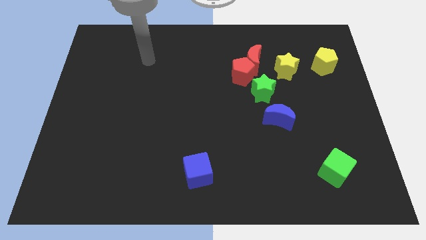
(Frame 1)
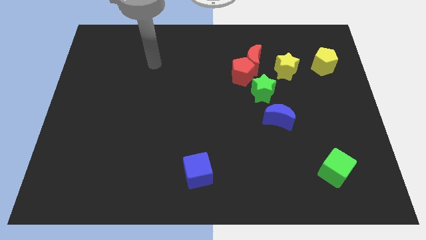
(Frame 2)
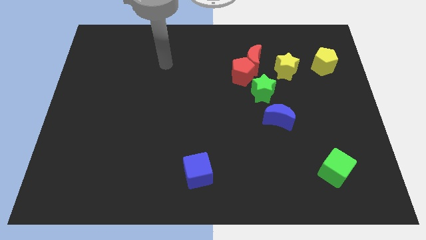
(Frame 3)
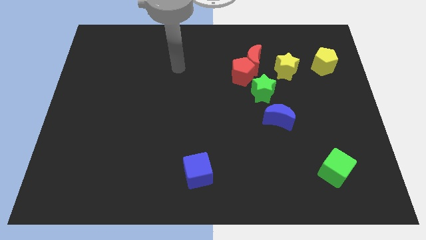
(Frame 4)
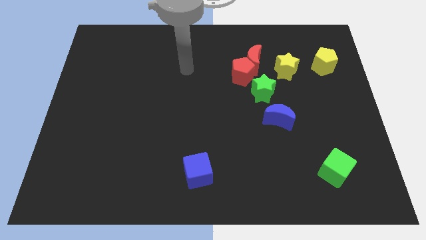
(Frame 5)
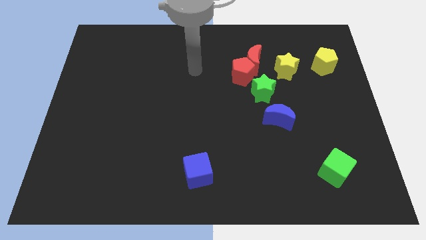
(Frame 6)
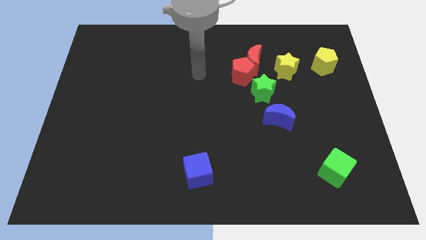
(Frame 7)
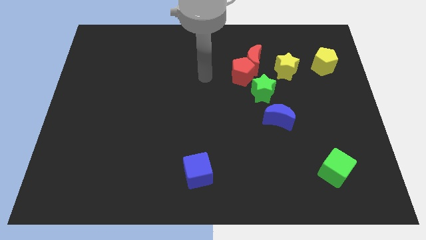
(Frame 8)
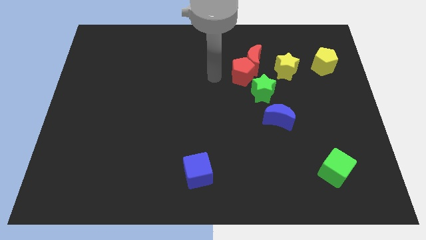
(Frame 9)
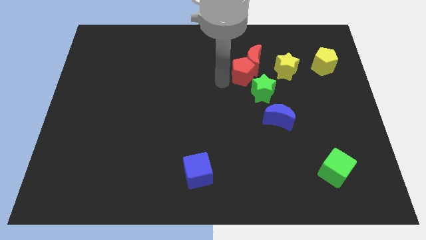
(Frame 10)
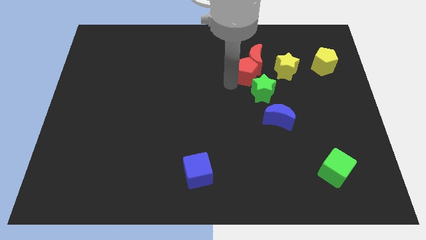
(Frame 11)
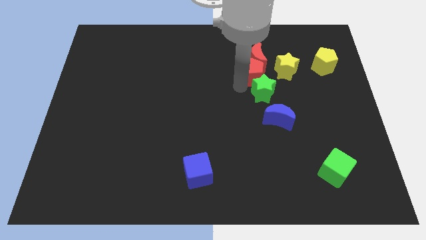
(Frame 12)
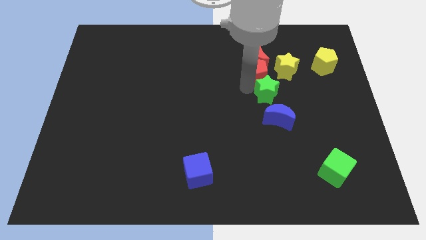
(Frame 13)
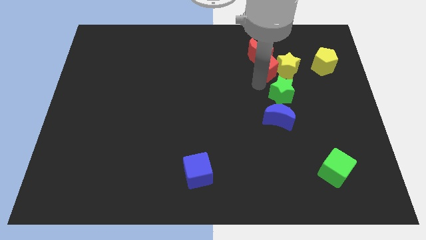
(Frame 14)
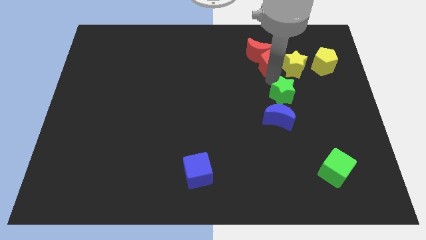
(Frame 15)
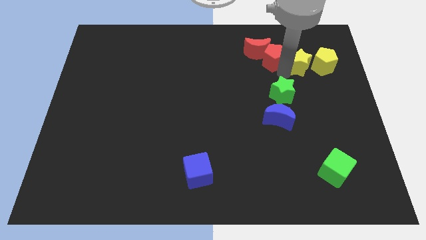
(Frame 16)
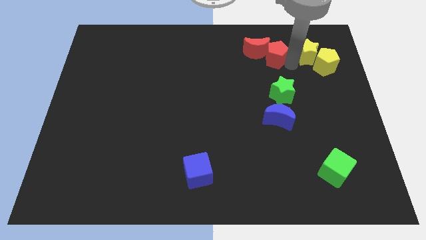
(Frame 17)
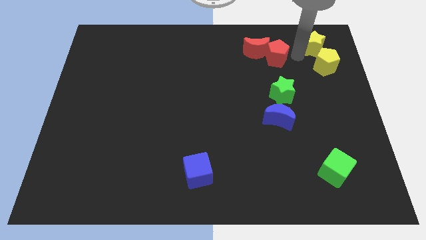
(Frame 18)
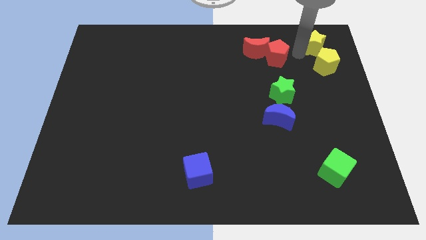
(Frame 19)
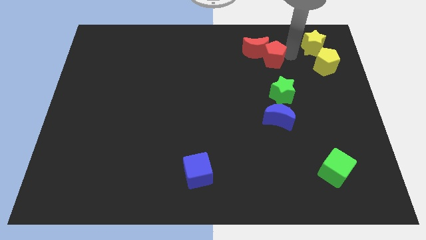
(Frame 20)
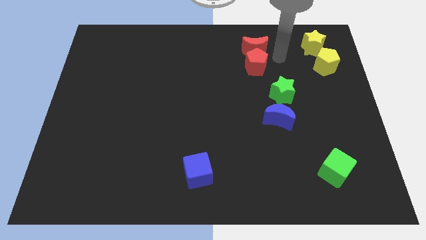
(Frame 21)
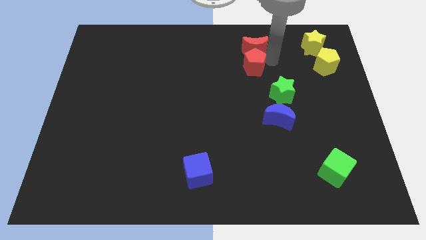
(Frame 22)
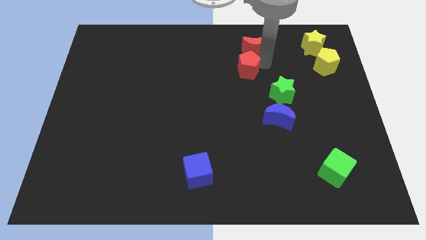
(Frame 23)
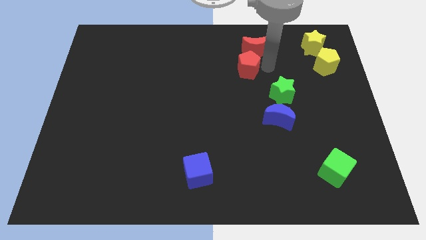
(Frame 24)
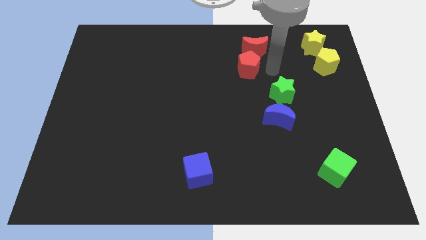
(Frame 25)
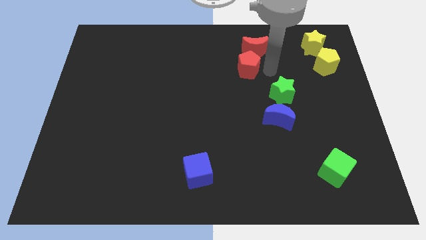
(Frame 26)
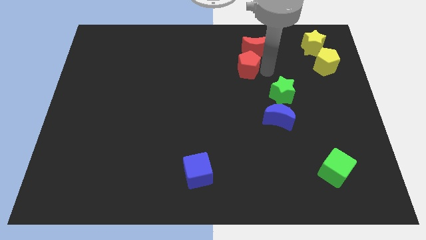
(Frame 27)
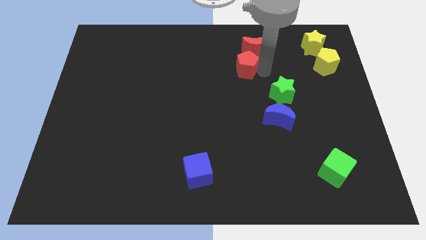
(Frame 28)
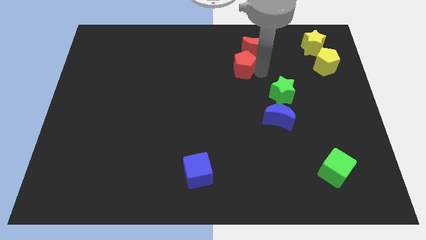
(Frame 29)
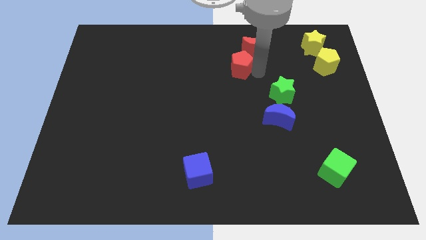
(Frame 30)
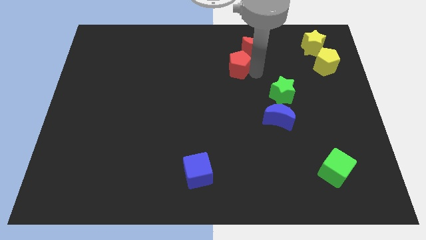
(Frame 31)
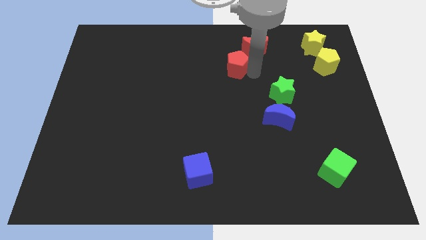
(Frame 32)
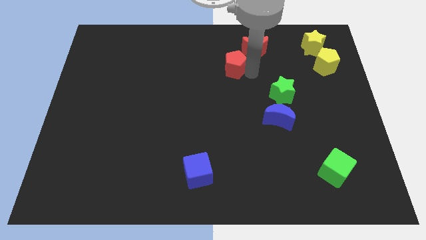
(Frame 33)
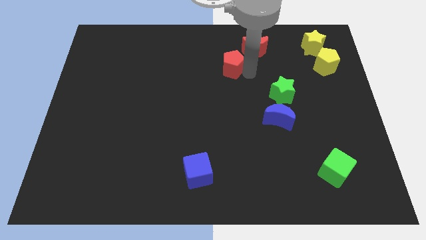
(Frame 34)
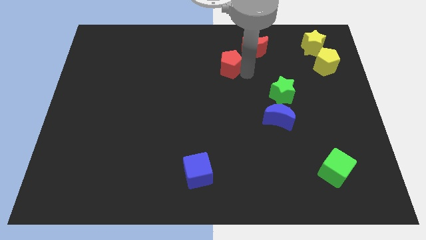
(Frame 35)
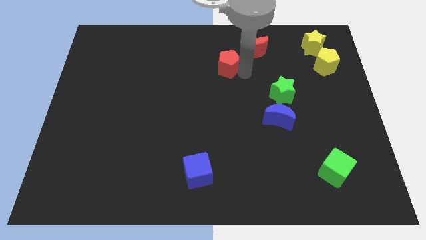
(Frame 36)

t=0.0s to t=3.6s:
pull the red pentagon apart from the red moon and green star

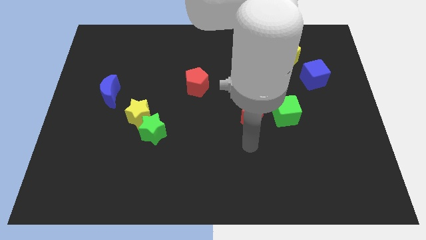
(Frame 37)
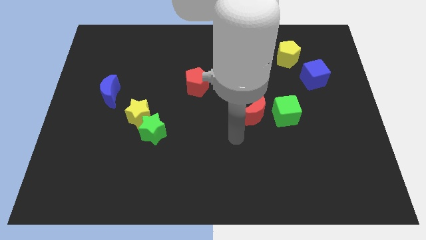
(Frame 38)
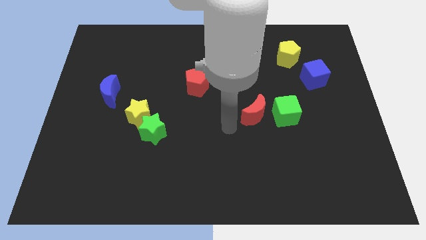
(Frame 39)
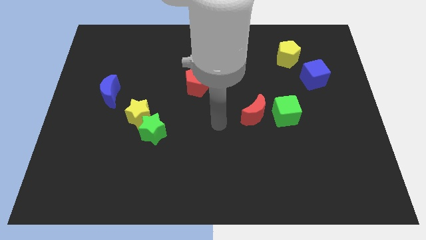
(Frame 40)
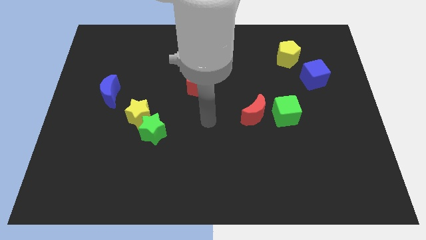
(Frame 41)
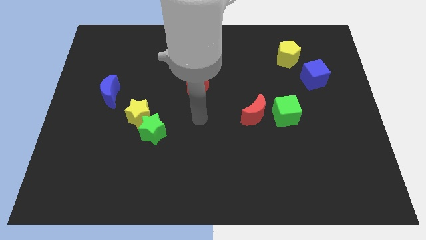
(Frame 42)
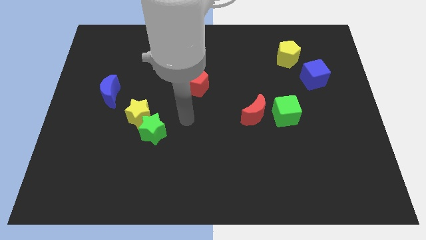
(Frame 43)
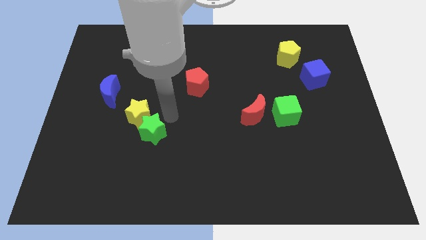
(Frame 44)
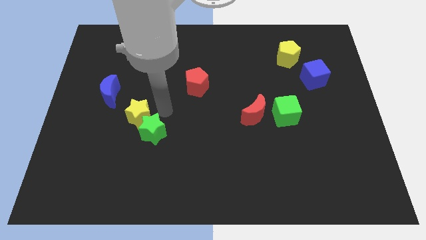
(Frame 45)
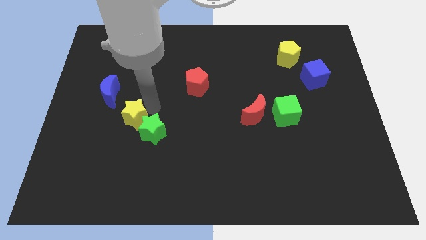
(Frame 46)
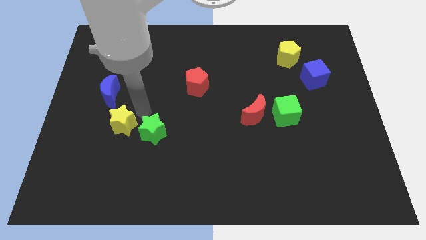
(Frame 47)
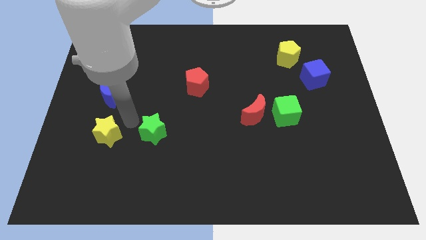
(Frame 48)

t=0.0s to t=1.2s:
separate the green star from the yellow star

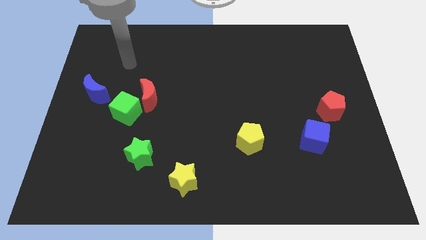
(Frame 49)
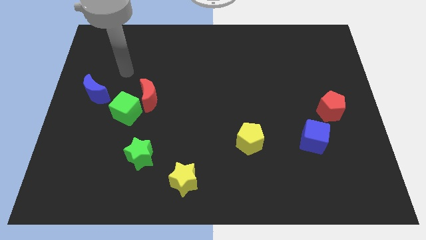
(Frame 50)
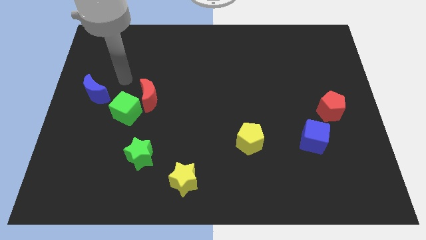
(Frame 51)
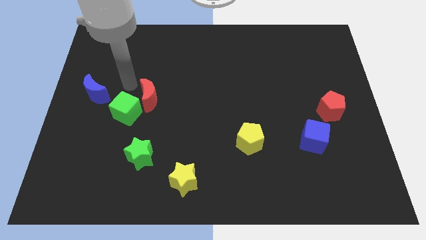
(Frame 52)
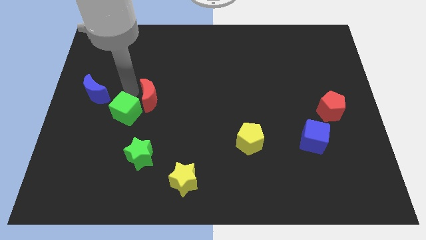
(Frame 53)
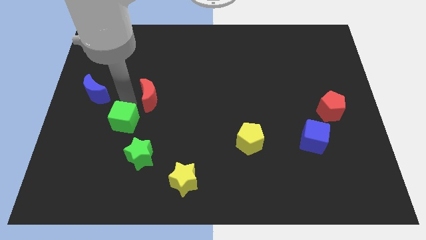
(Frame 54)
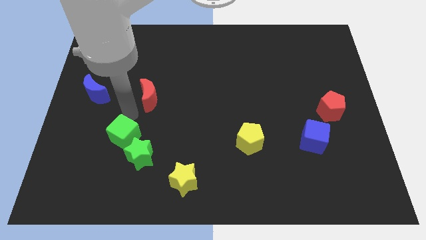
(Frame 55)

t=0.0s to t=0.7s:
pull the red moon apart from the green cube

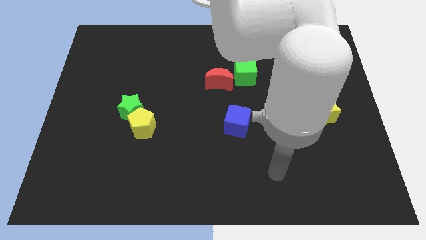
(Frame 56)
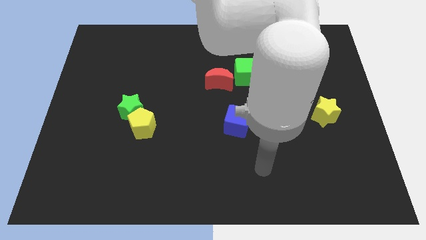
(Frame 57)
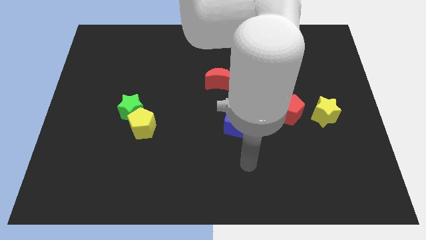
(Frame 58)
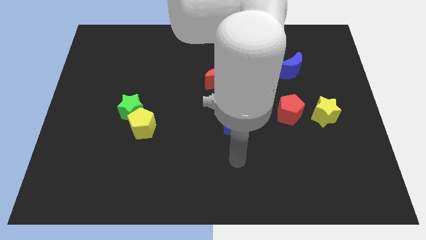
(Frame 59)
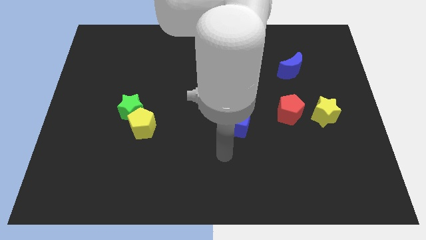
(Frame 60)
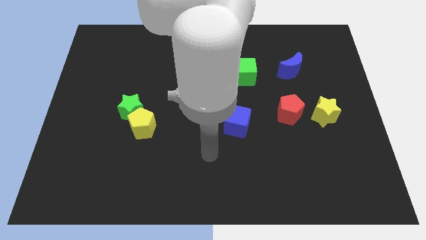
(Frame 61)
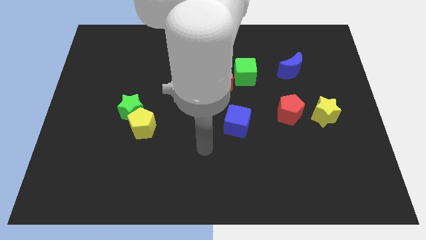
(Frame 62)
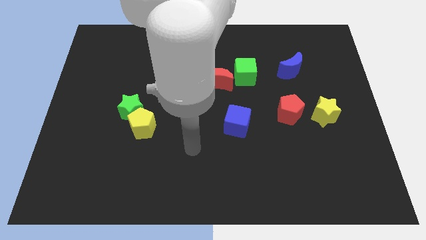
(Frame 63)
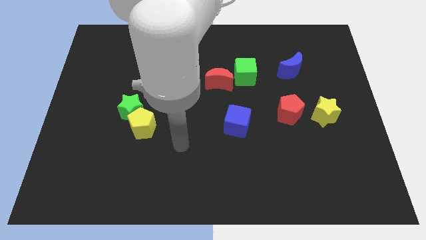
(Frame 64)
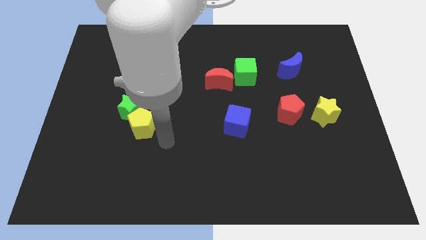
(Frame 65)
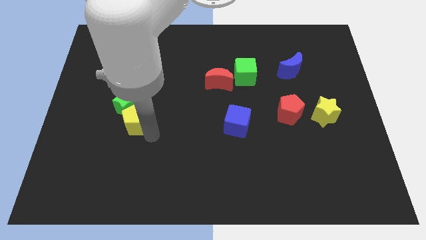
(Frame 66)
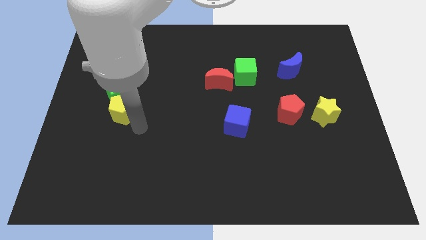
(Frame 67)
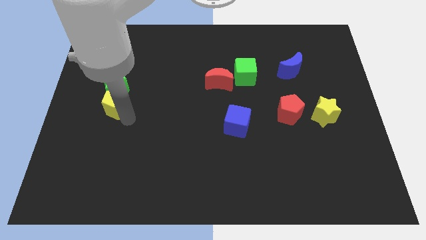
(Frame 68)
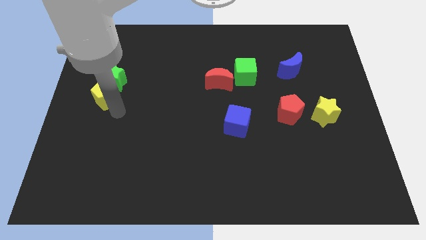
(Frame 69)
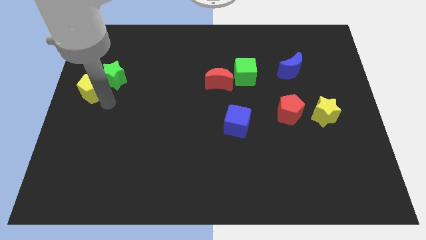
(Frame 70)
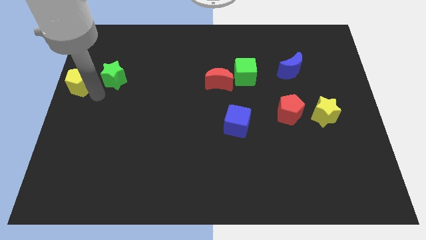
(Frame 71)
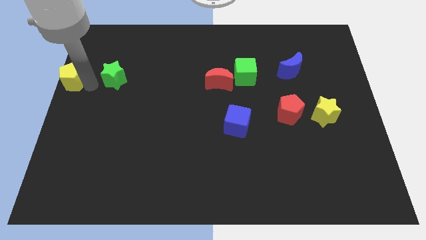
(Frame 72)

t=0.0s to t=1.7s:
pull the green star apart from the yellow pentagon

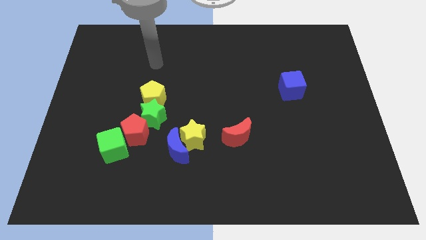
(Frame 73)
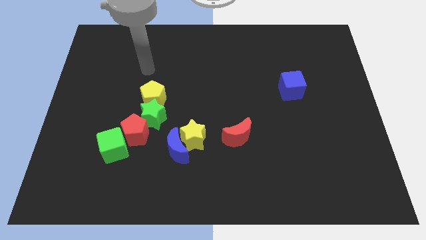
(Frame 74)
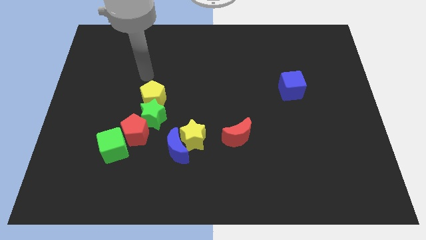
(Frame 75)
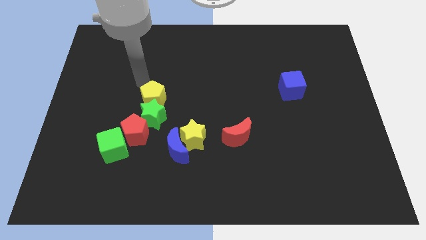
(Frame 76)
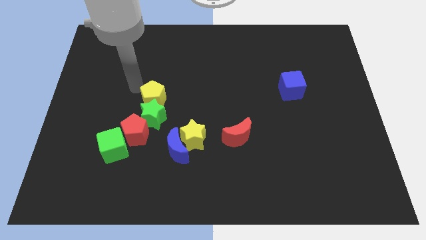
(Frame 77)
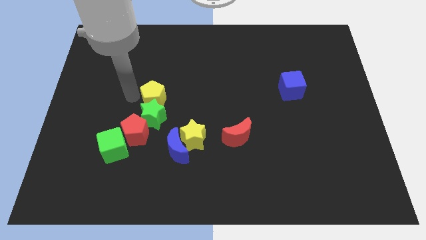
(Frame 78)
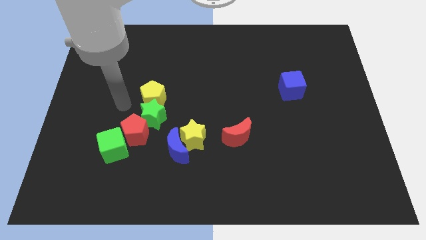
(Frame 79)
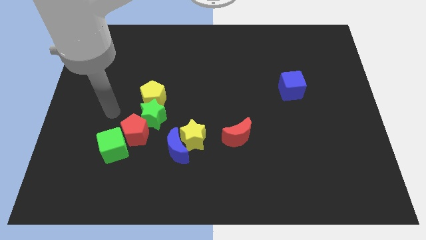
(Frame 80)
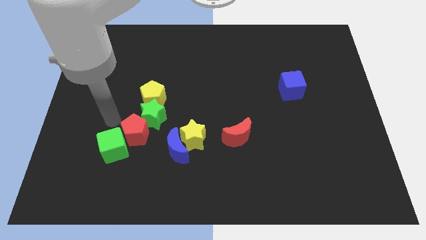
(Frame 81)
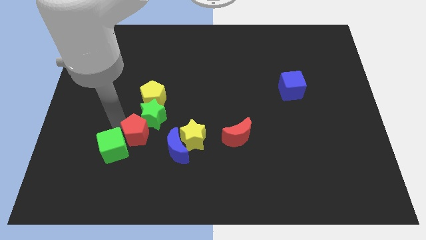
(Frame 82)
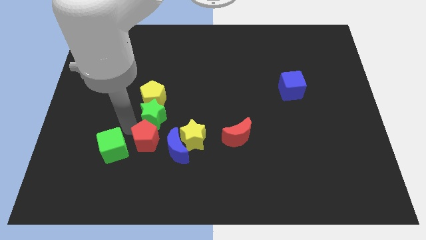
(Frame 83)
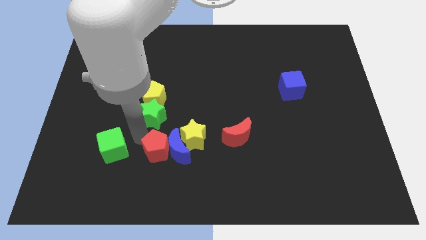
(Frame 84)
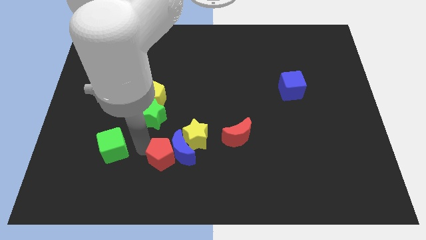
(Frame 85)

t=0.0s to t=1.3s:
pull the green cube apart from the red pentagon

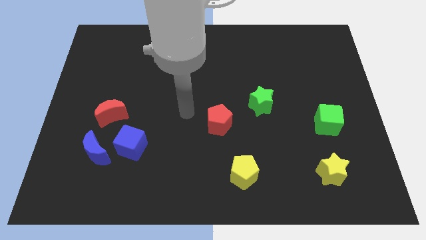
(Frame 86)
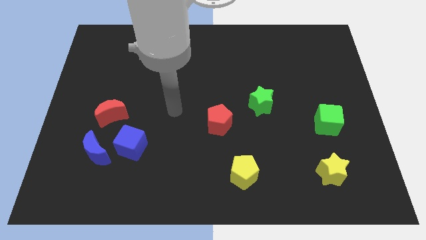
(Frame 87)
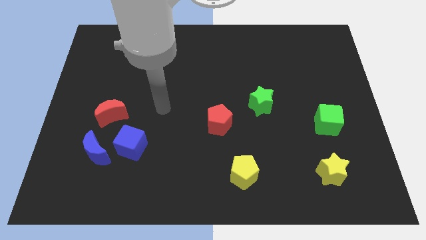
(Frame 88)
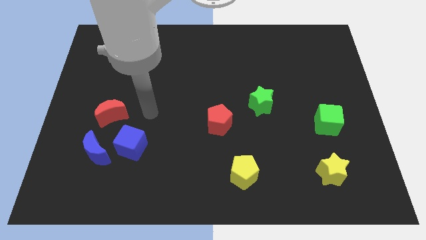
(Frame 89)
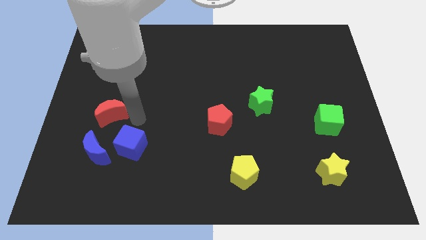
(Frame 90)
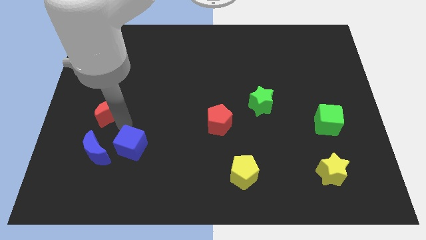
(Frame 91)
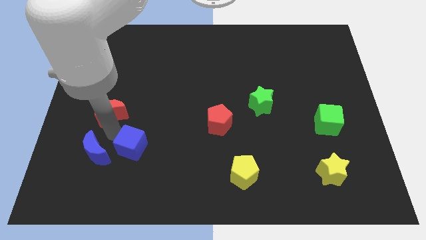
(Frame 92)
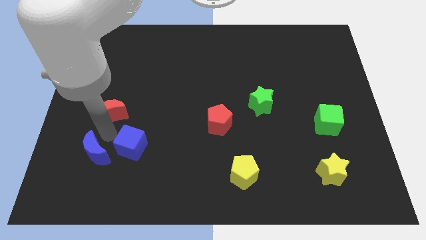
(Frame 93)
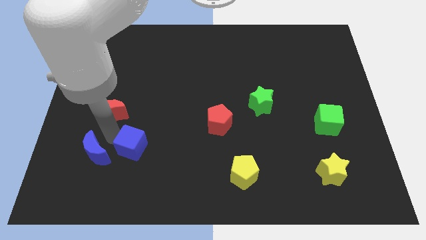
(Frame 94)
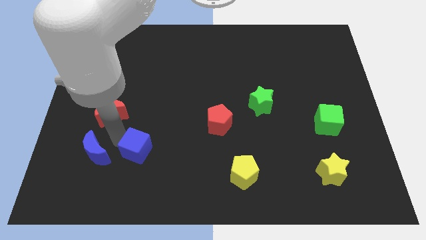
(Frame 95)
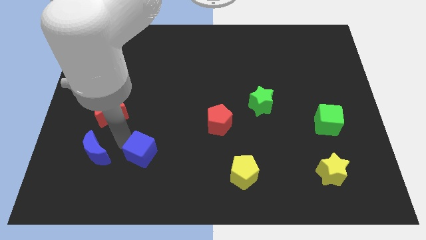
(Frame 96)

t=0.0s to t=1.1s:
separate the blue cube from the blue moon and red moon
